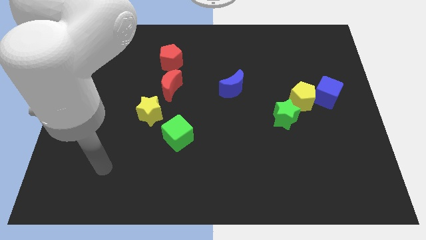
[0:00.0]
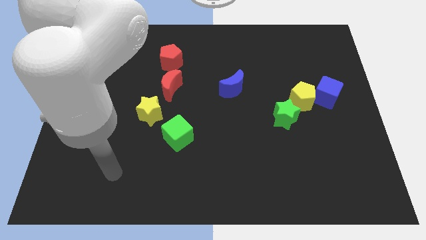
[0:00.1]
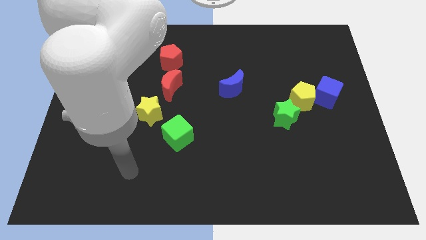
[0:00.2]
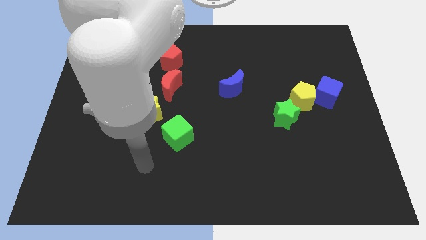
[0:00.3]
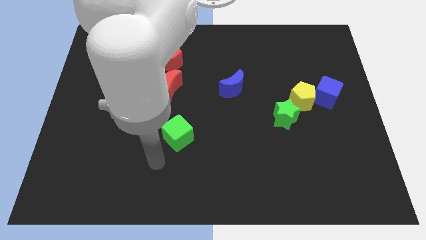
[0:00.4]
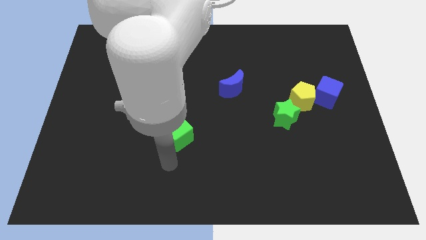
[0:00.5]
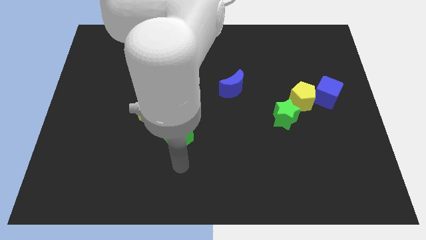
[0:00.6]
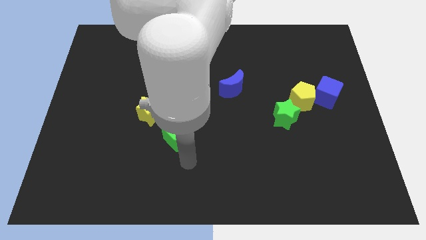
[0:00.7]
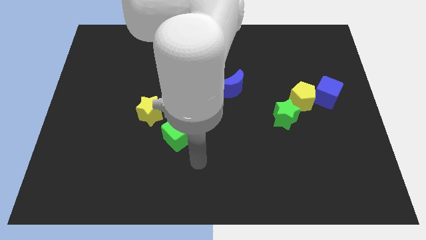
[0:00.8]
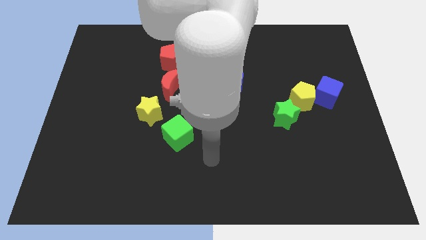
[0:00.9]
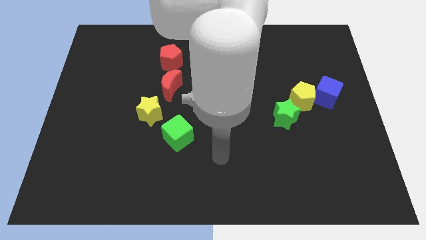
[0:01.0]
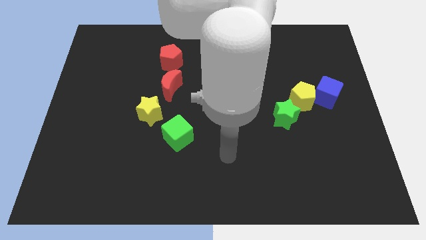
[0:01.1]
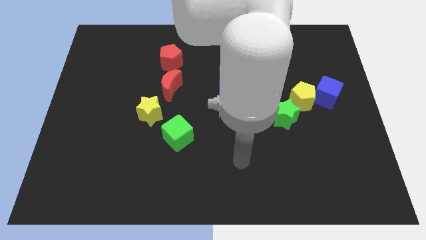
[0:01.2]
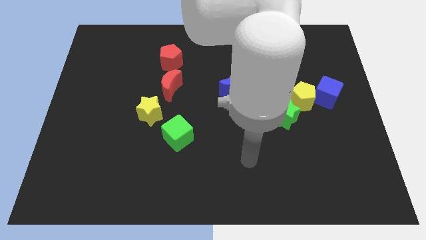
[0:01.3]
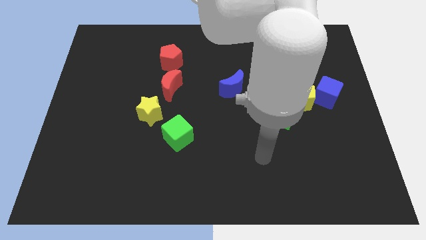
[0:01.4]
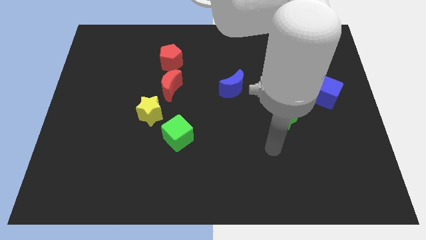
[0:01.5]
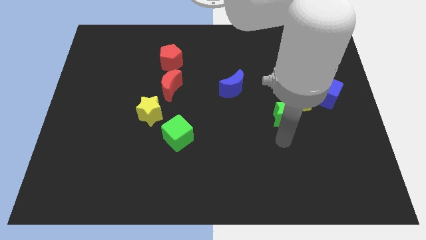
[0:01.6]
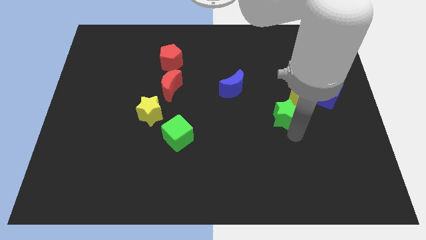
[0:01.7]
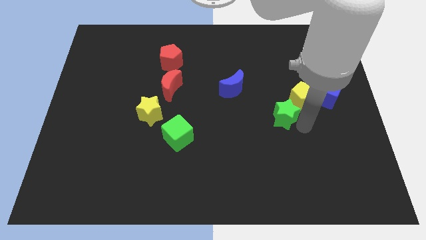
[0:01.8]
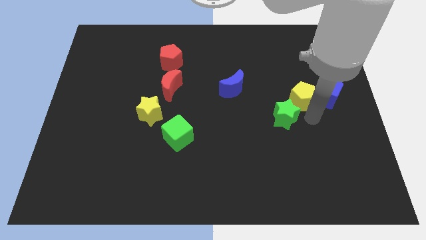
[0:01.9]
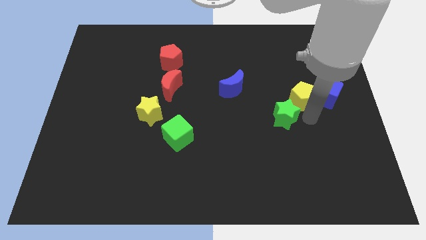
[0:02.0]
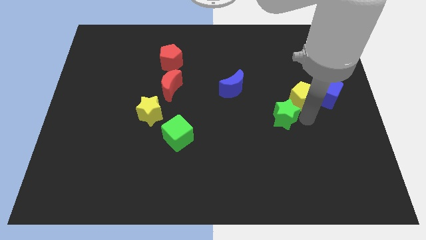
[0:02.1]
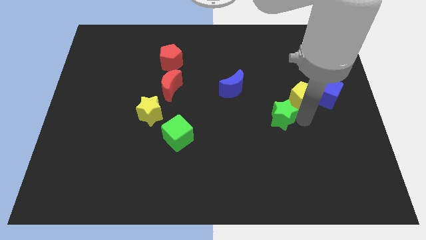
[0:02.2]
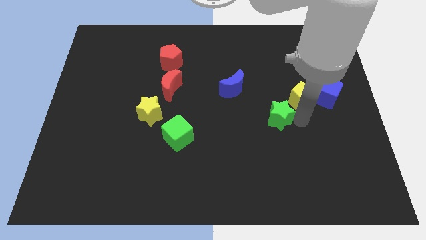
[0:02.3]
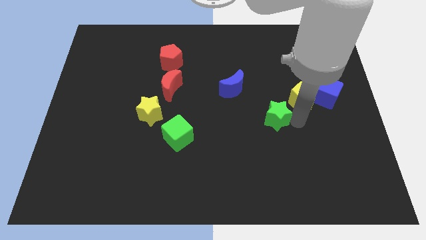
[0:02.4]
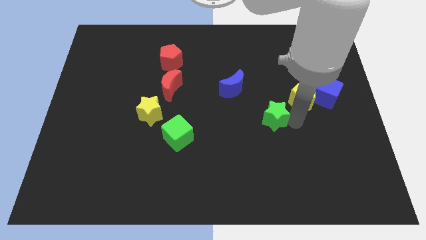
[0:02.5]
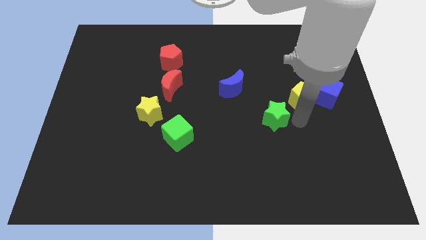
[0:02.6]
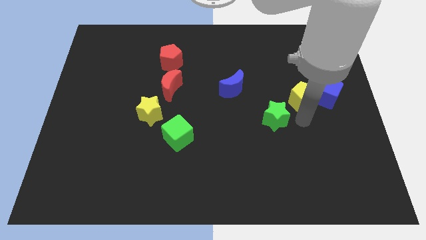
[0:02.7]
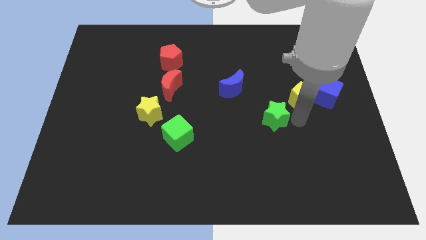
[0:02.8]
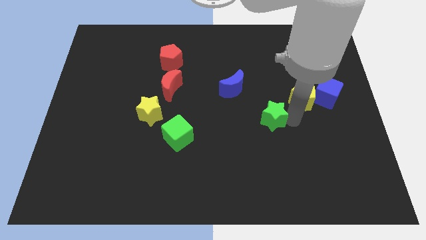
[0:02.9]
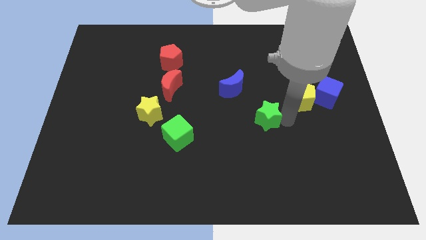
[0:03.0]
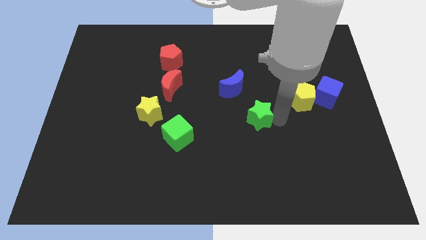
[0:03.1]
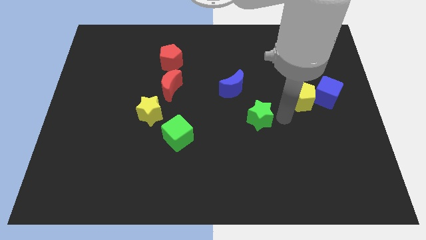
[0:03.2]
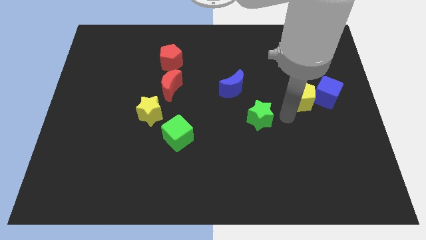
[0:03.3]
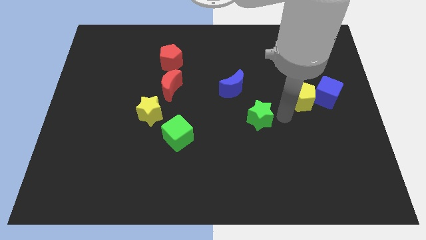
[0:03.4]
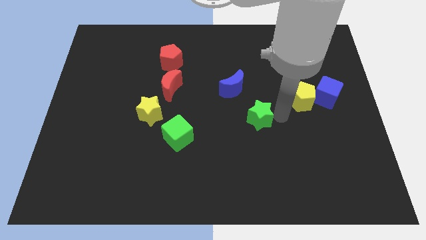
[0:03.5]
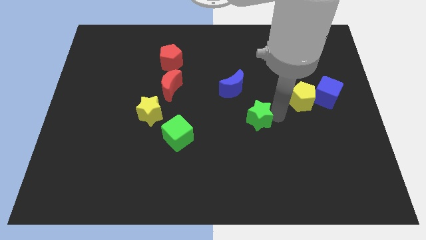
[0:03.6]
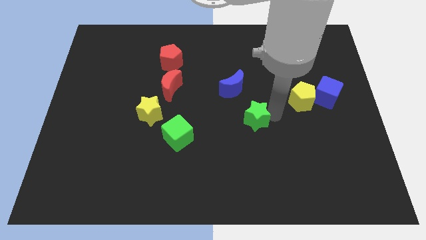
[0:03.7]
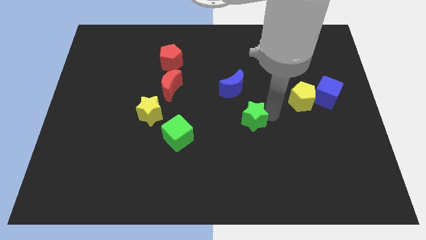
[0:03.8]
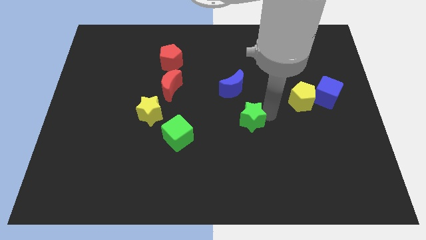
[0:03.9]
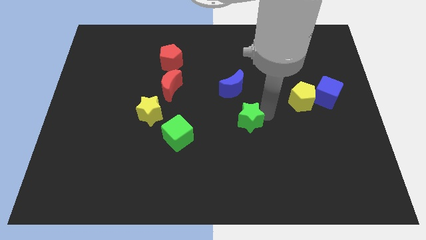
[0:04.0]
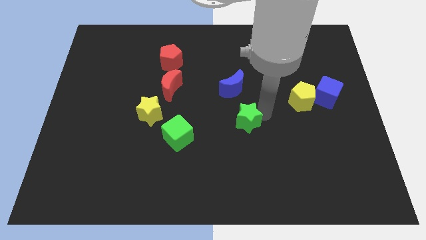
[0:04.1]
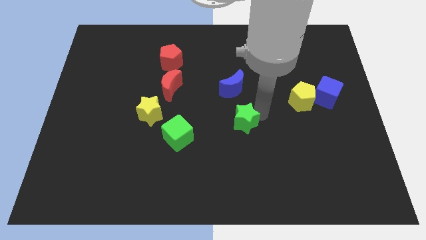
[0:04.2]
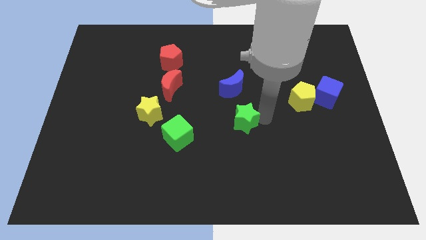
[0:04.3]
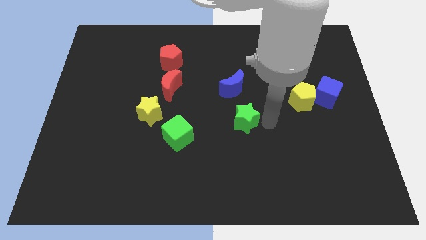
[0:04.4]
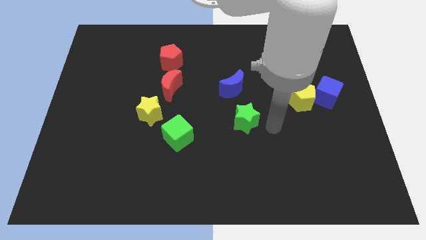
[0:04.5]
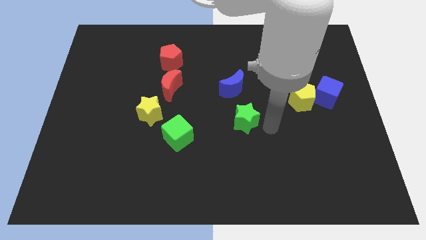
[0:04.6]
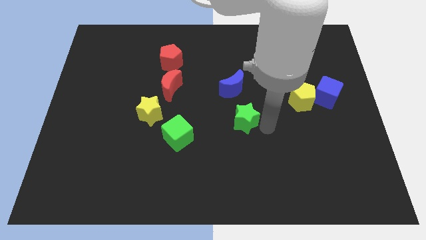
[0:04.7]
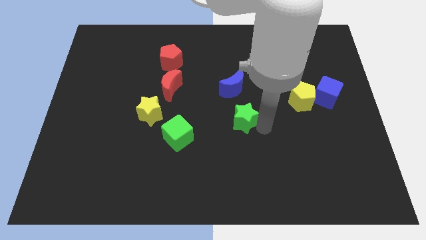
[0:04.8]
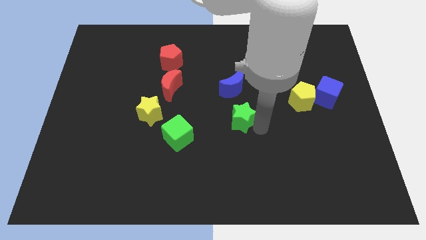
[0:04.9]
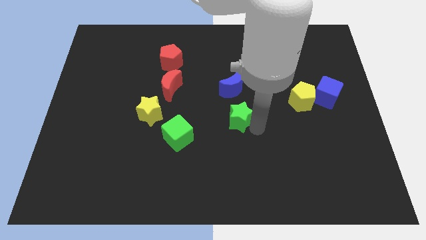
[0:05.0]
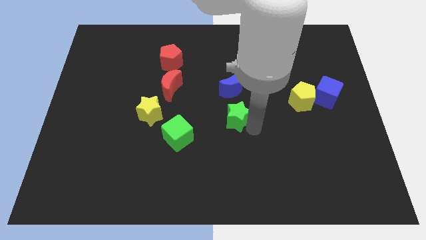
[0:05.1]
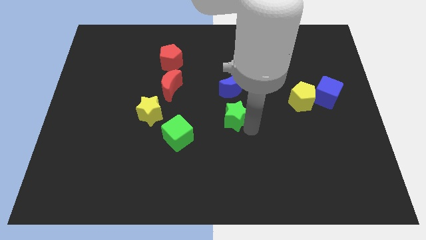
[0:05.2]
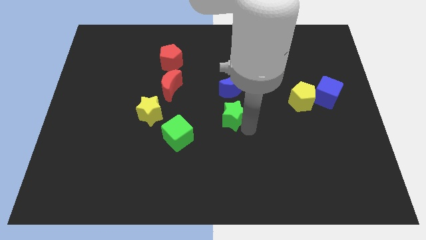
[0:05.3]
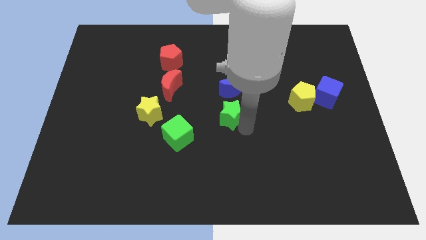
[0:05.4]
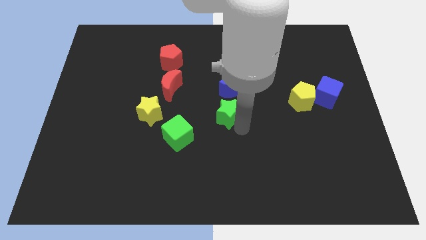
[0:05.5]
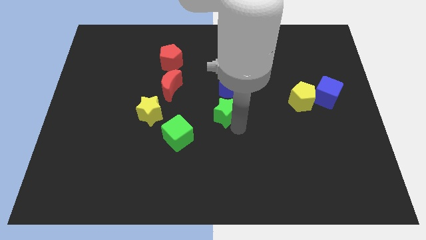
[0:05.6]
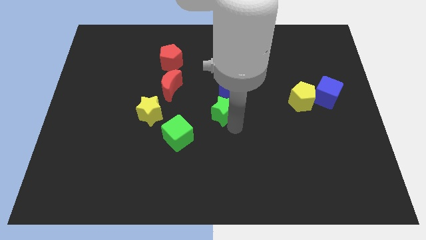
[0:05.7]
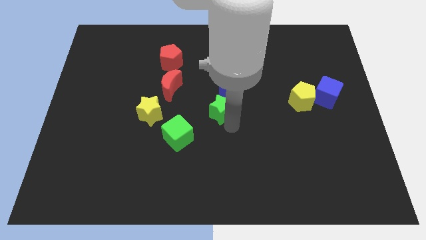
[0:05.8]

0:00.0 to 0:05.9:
push the green star to the right of the yellow star

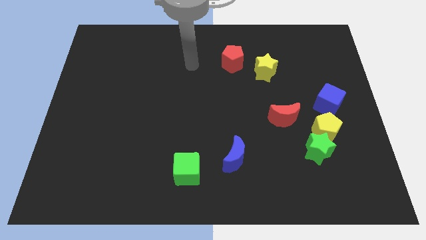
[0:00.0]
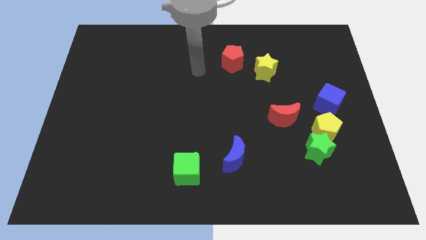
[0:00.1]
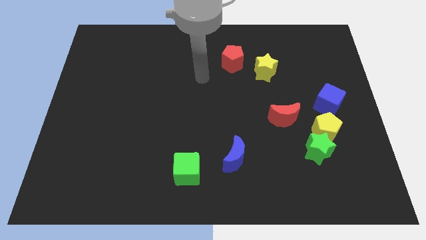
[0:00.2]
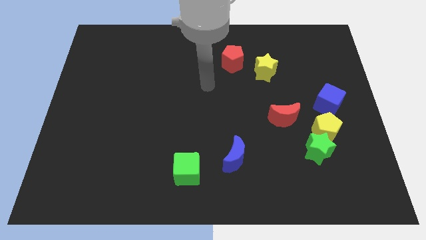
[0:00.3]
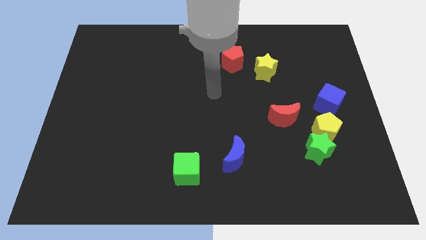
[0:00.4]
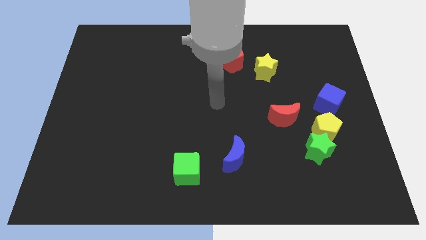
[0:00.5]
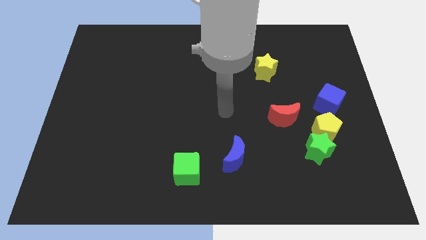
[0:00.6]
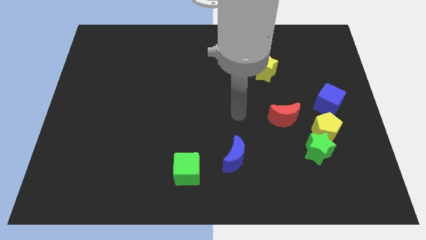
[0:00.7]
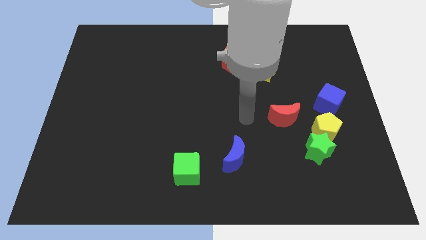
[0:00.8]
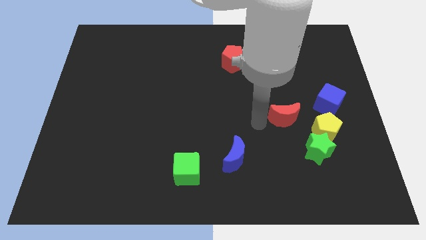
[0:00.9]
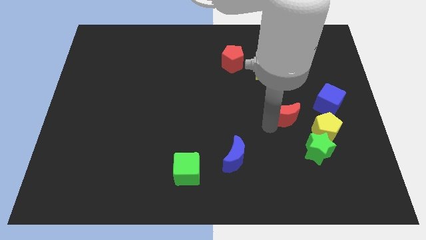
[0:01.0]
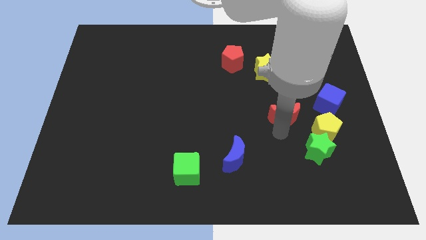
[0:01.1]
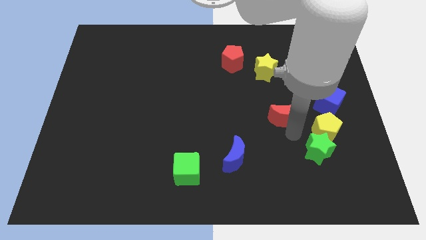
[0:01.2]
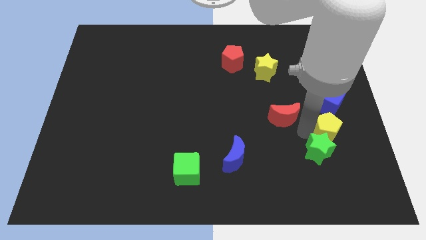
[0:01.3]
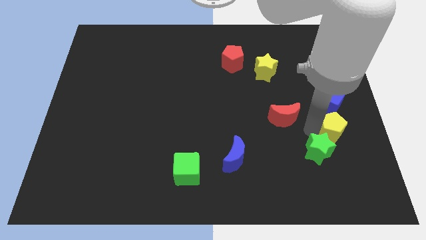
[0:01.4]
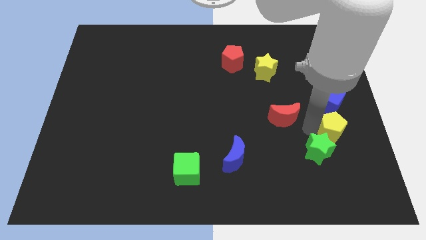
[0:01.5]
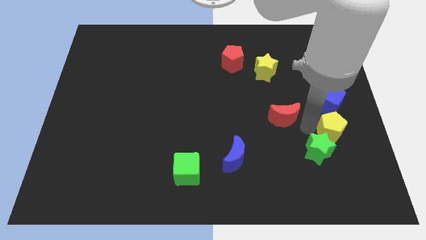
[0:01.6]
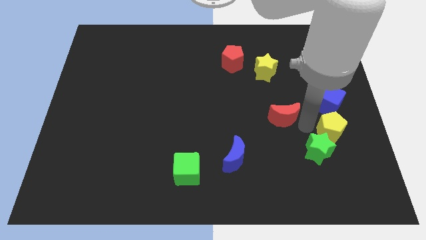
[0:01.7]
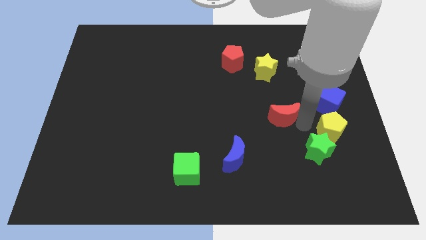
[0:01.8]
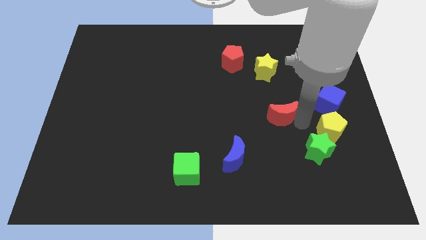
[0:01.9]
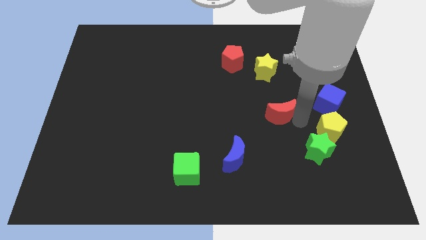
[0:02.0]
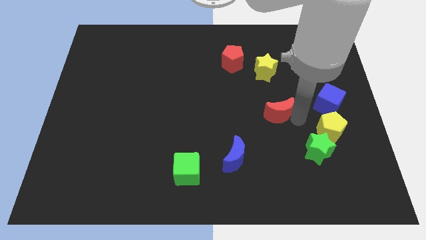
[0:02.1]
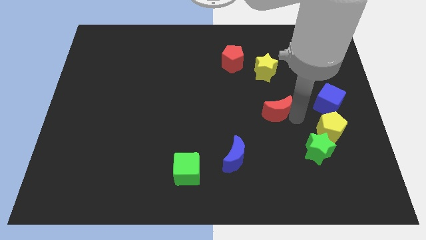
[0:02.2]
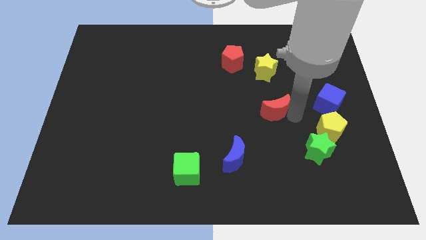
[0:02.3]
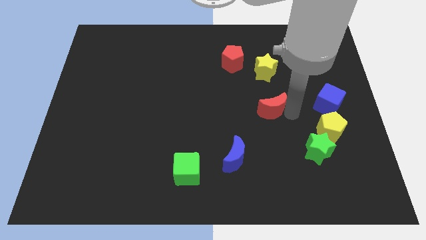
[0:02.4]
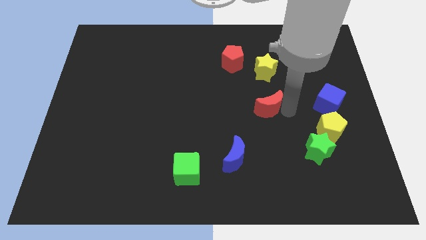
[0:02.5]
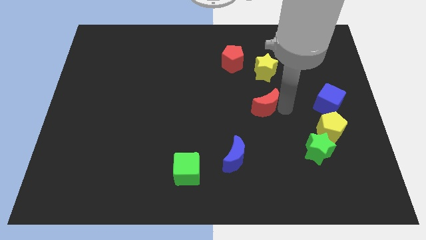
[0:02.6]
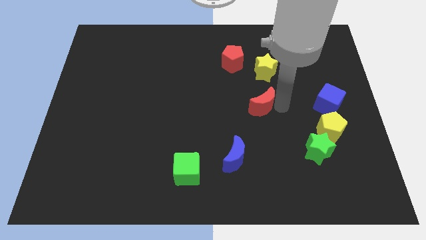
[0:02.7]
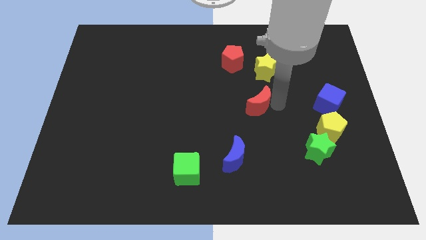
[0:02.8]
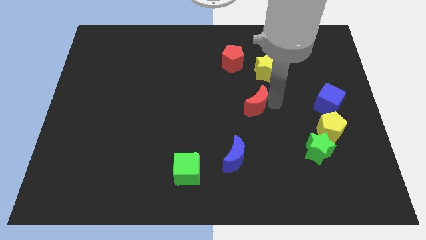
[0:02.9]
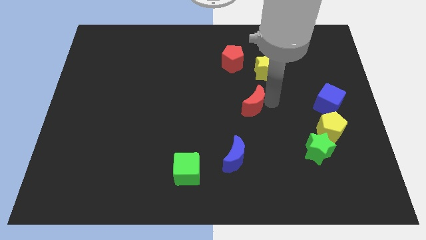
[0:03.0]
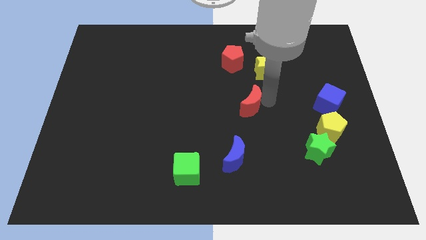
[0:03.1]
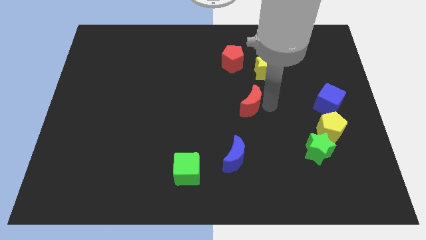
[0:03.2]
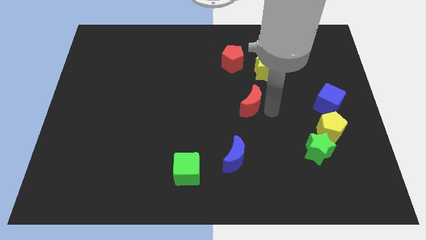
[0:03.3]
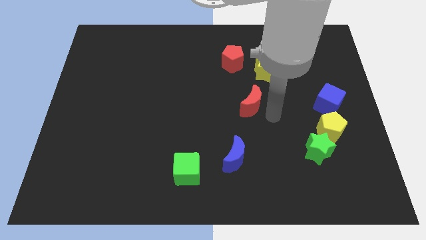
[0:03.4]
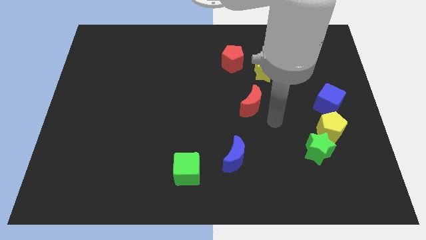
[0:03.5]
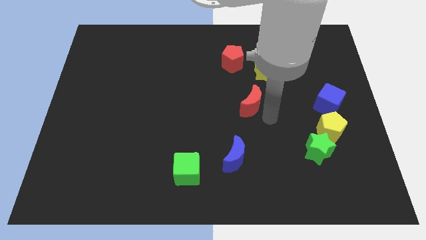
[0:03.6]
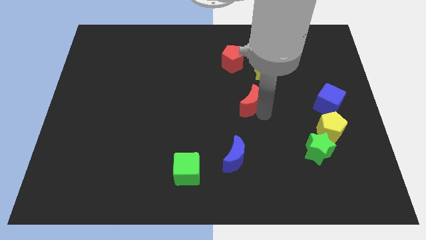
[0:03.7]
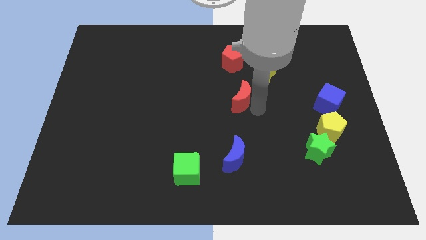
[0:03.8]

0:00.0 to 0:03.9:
push the red moon to the bottom side of the red pentagon
